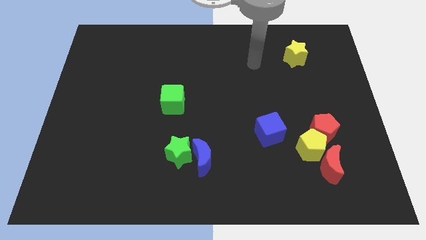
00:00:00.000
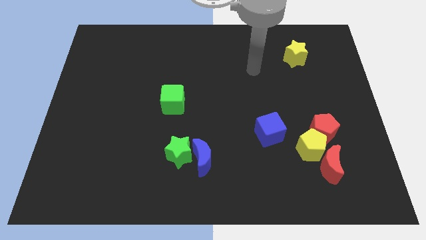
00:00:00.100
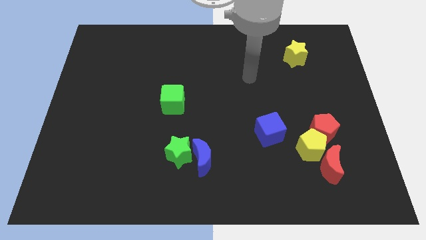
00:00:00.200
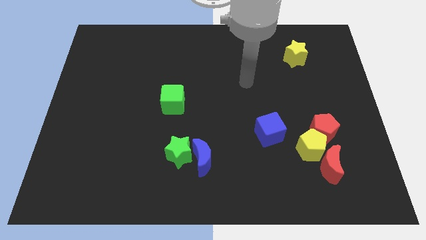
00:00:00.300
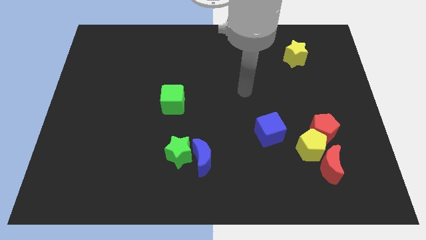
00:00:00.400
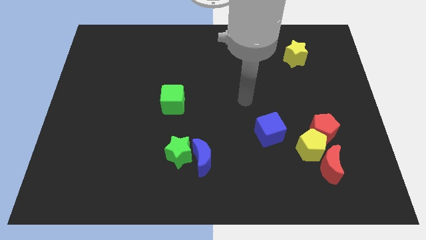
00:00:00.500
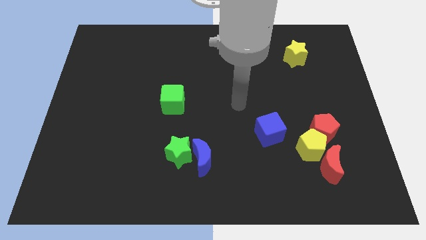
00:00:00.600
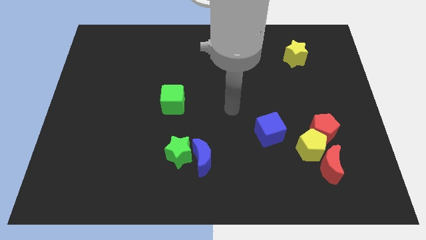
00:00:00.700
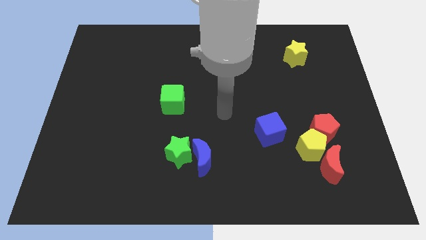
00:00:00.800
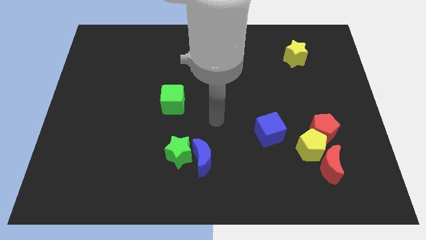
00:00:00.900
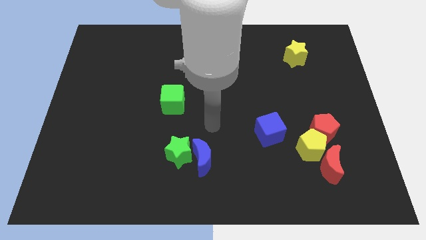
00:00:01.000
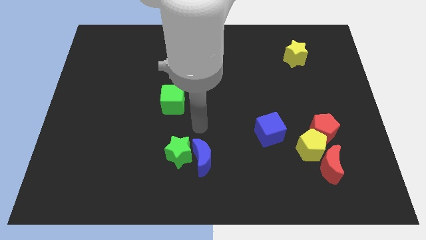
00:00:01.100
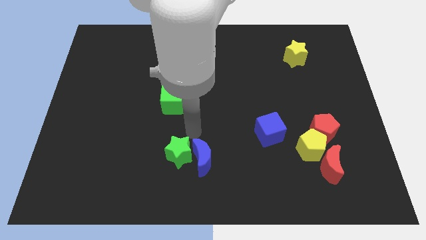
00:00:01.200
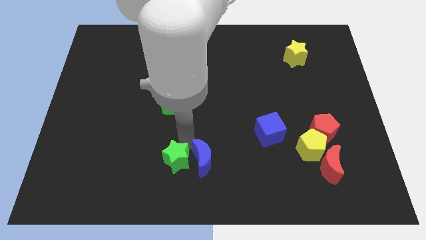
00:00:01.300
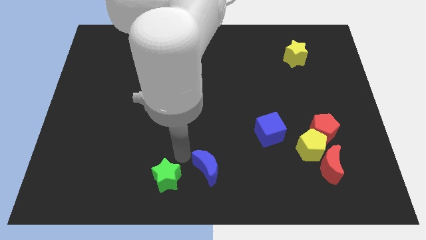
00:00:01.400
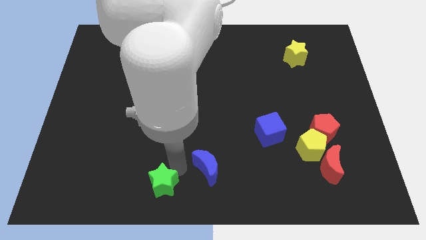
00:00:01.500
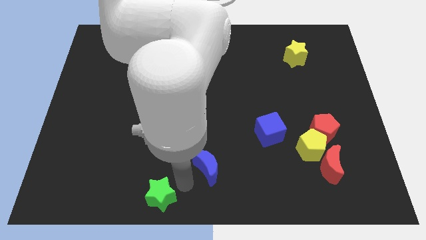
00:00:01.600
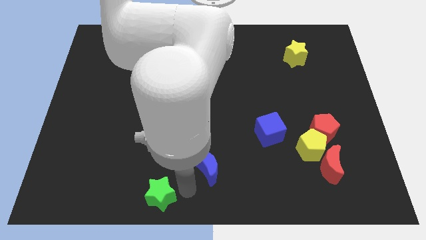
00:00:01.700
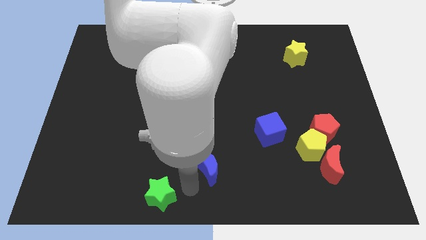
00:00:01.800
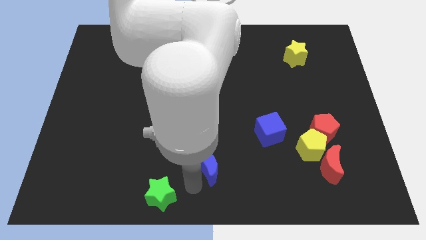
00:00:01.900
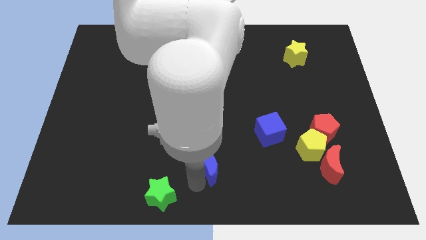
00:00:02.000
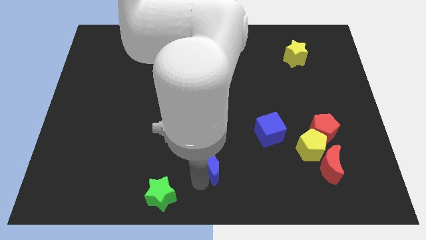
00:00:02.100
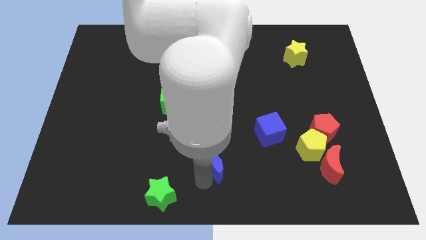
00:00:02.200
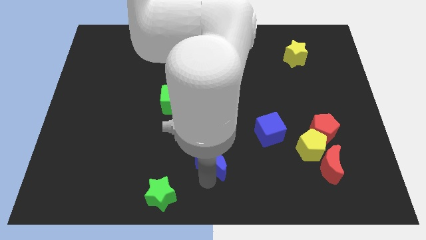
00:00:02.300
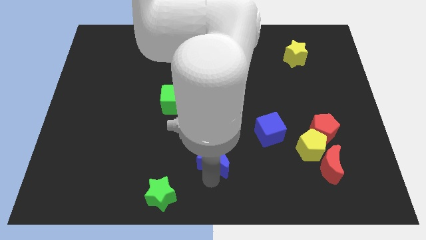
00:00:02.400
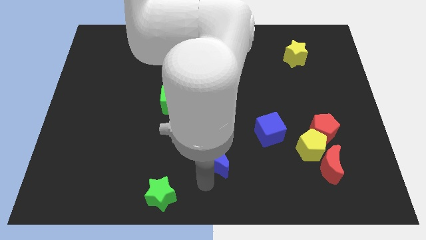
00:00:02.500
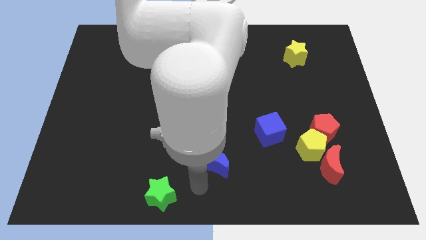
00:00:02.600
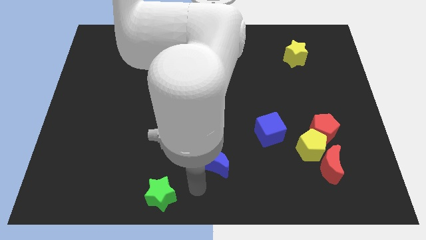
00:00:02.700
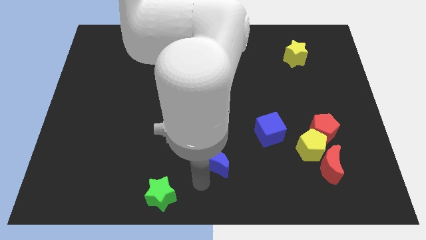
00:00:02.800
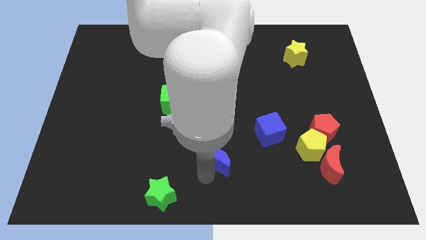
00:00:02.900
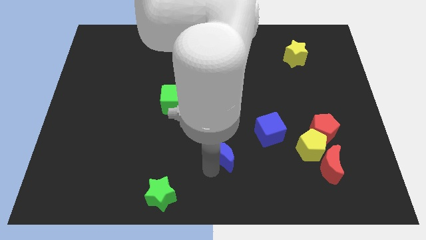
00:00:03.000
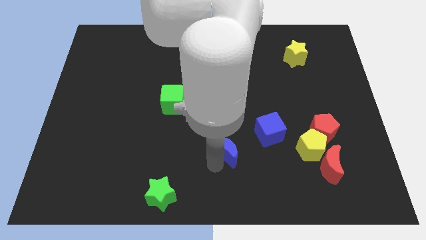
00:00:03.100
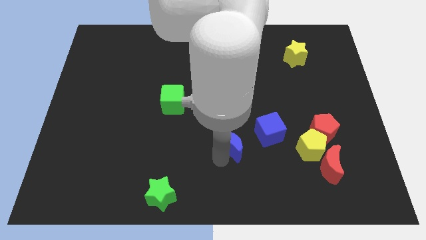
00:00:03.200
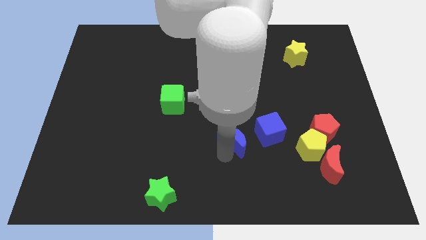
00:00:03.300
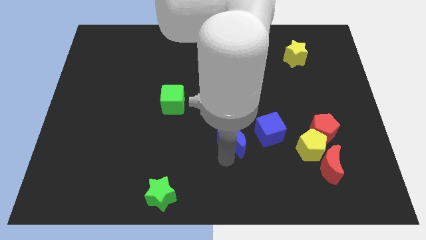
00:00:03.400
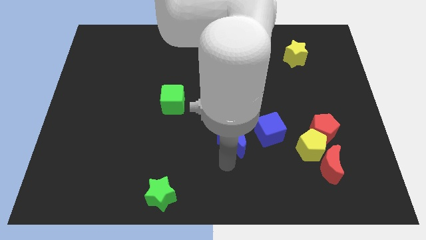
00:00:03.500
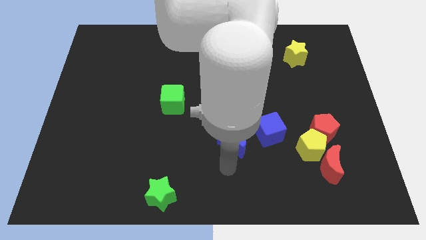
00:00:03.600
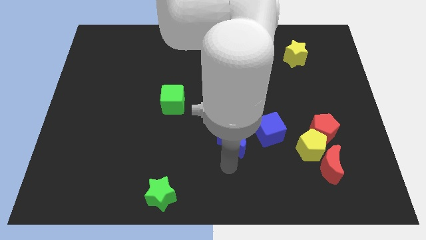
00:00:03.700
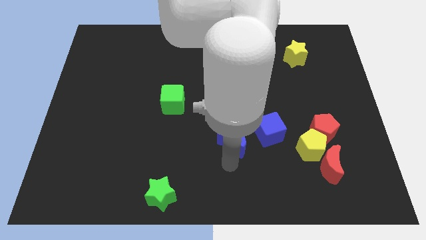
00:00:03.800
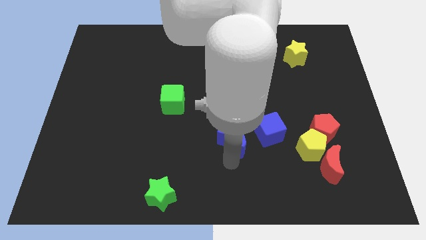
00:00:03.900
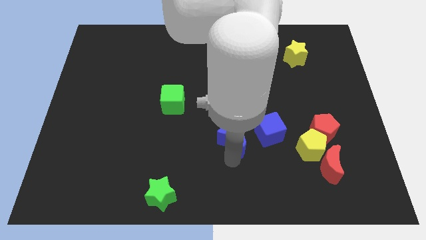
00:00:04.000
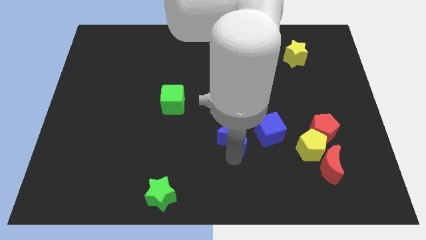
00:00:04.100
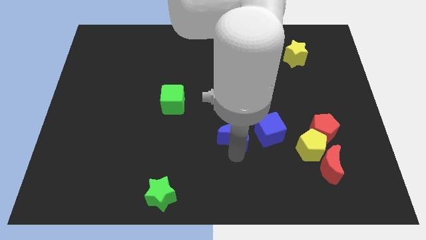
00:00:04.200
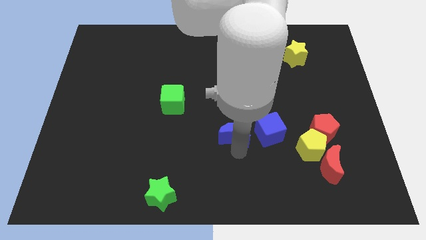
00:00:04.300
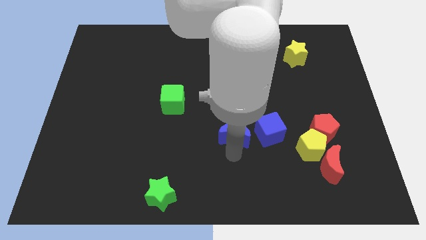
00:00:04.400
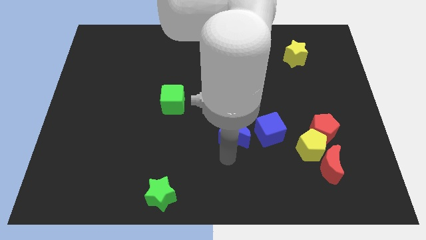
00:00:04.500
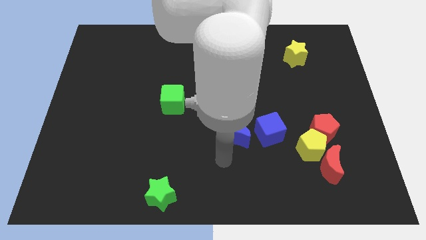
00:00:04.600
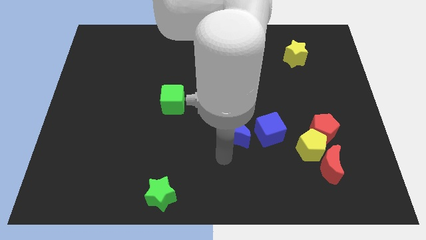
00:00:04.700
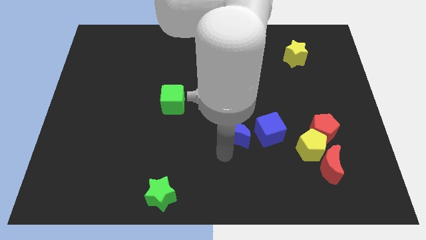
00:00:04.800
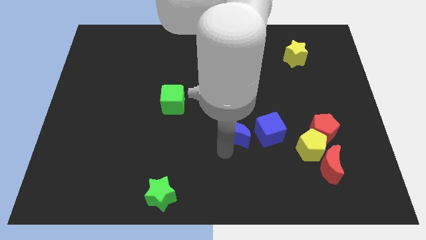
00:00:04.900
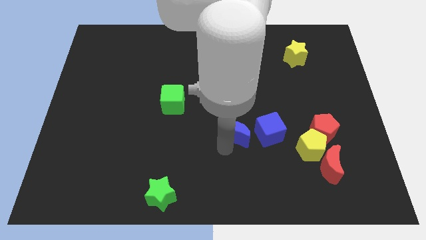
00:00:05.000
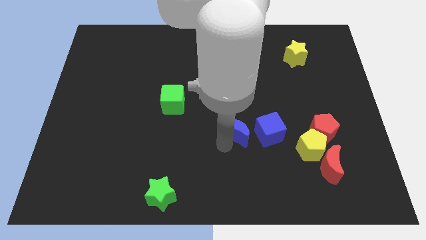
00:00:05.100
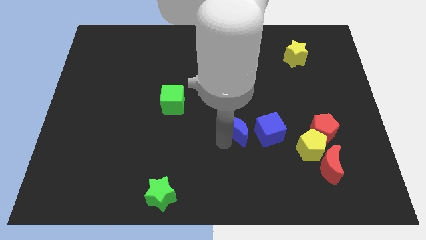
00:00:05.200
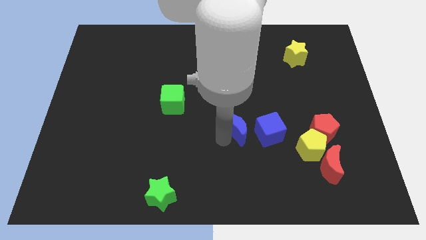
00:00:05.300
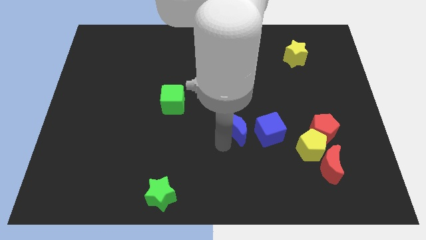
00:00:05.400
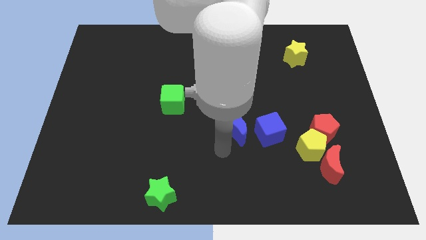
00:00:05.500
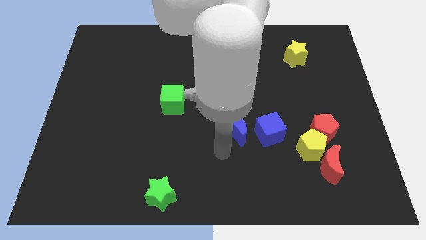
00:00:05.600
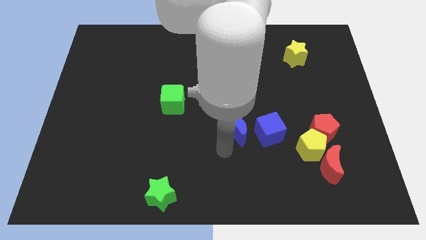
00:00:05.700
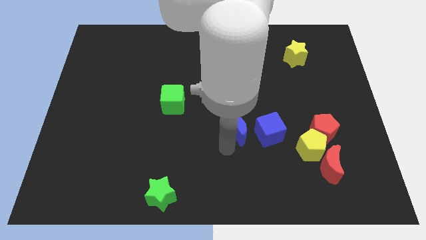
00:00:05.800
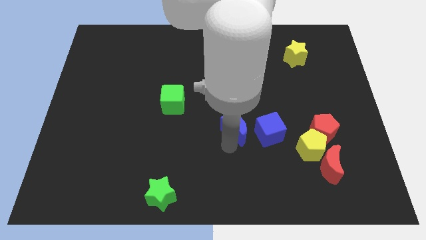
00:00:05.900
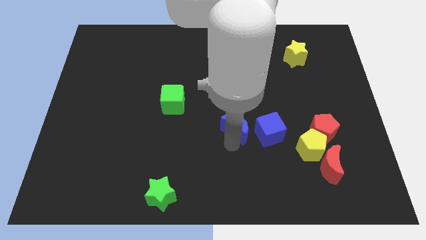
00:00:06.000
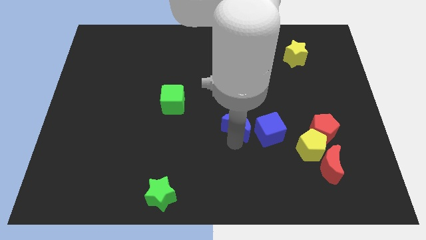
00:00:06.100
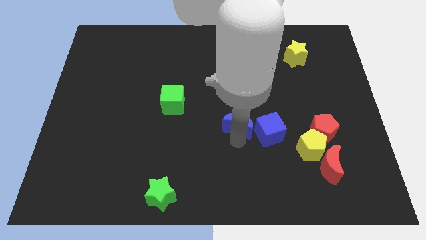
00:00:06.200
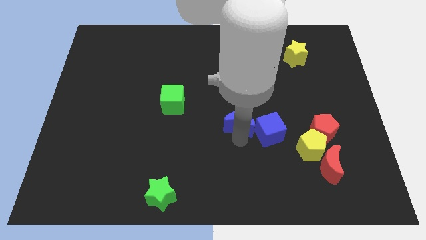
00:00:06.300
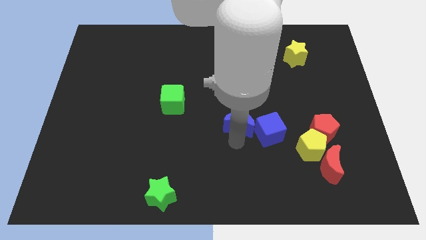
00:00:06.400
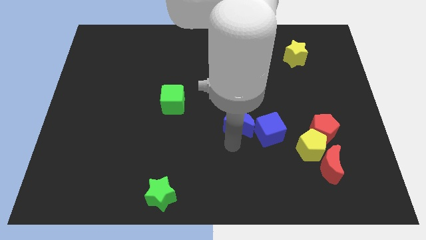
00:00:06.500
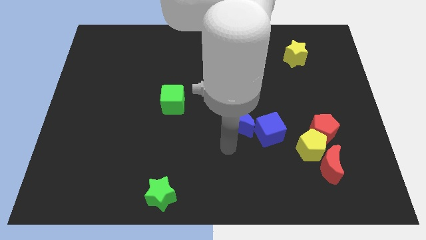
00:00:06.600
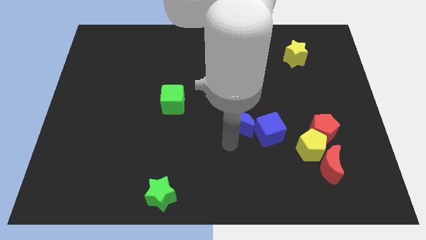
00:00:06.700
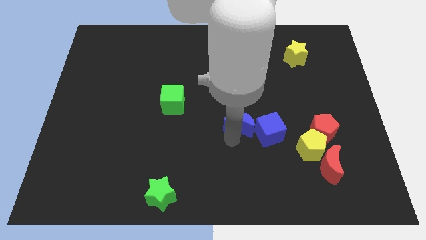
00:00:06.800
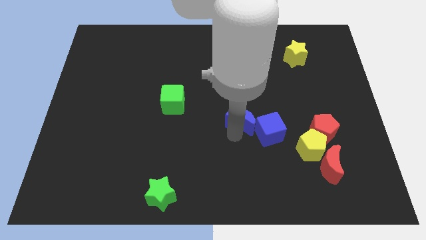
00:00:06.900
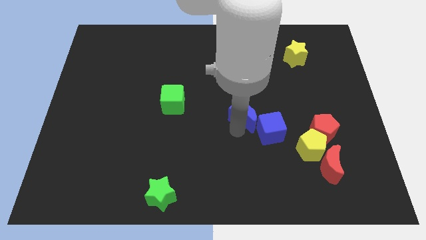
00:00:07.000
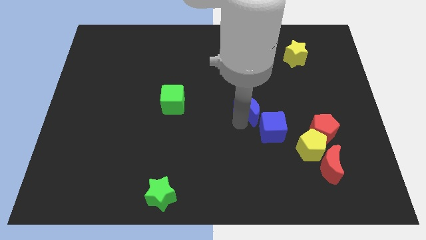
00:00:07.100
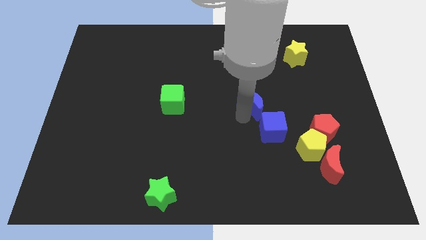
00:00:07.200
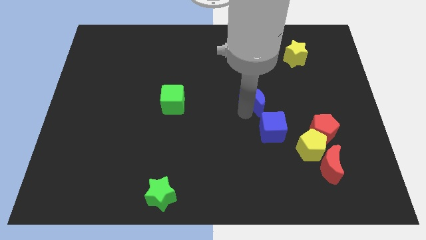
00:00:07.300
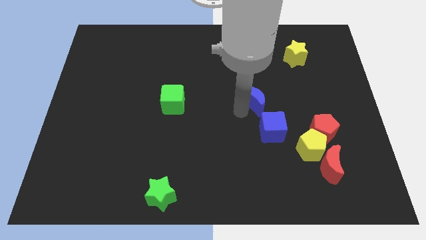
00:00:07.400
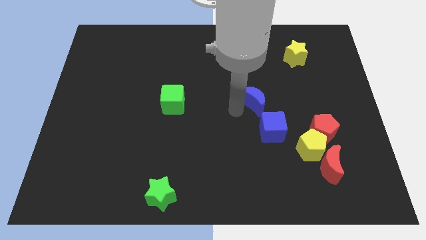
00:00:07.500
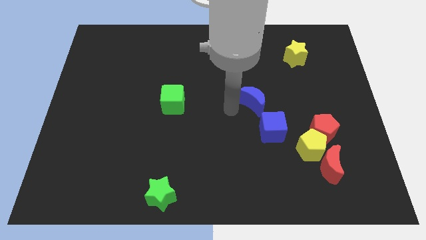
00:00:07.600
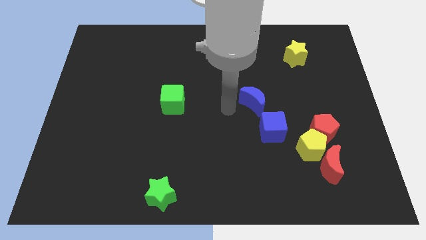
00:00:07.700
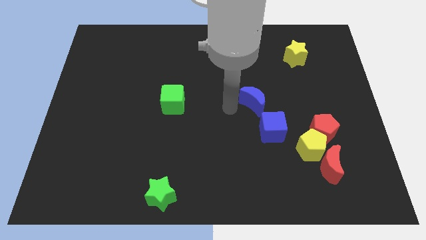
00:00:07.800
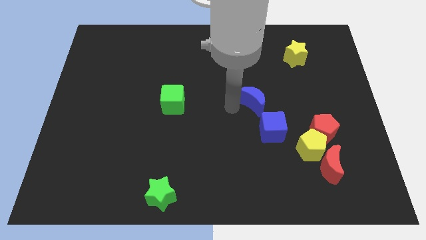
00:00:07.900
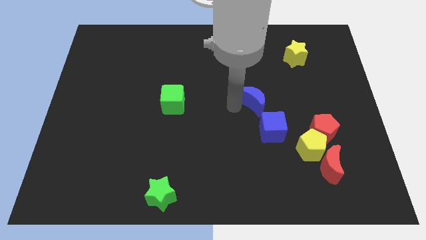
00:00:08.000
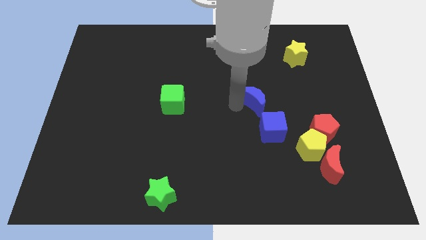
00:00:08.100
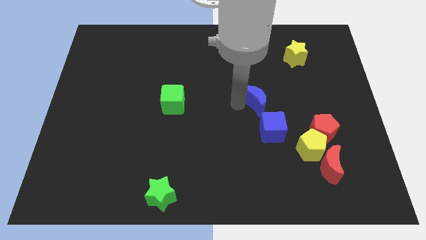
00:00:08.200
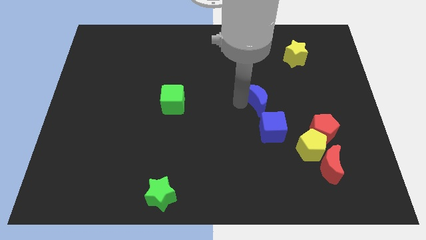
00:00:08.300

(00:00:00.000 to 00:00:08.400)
push the blue moon upwards and right
